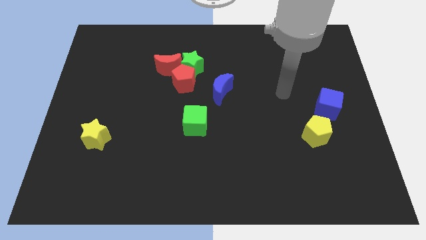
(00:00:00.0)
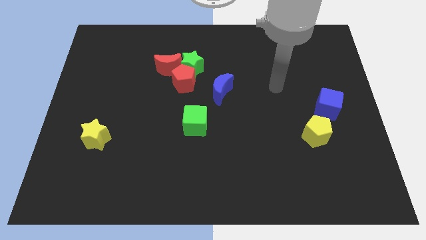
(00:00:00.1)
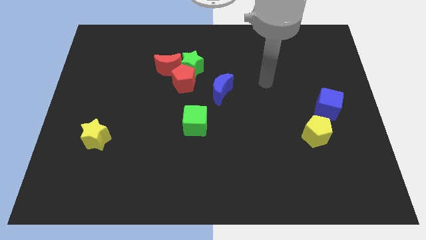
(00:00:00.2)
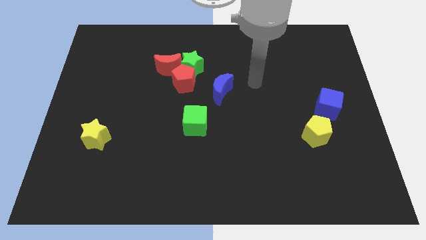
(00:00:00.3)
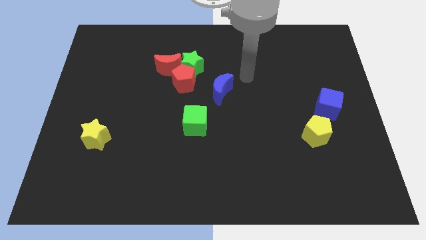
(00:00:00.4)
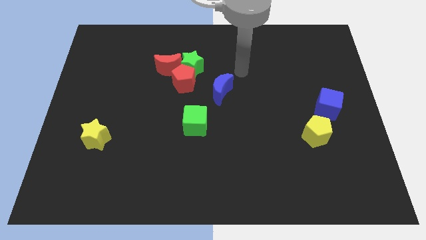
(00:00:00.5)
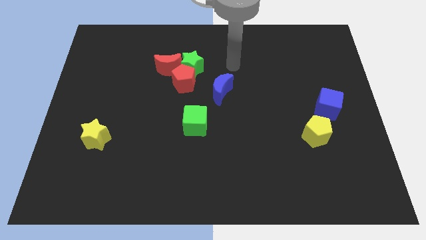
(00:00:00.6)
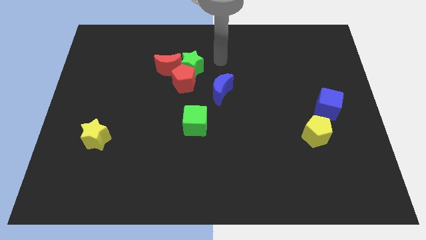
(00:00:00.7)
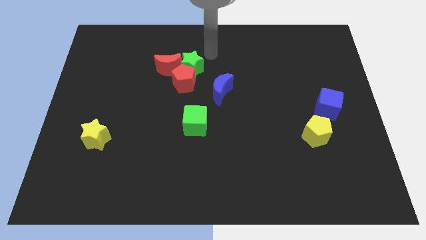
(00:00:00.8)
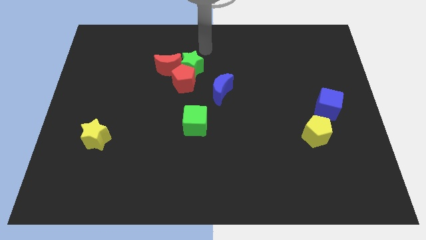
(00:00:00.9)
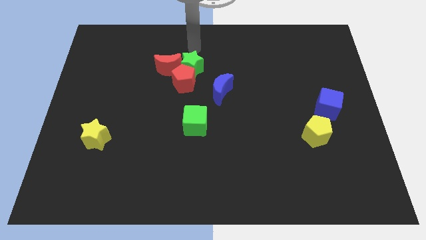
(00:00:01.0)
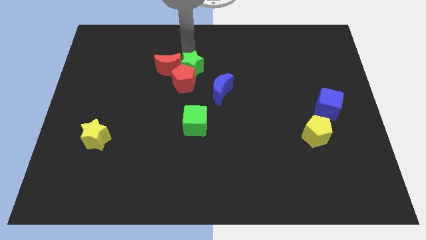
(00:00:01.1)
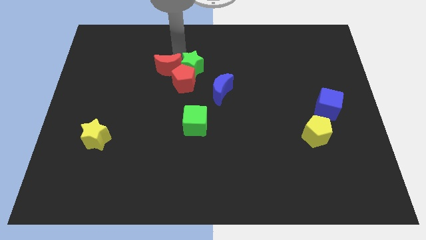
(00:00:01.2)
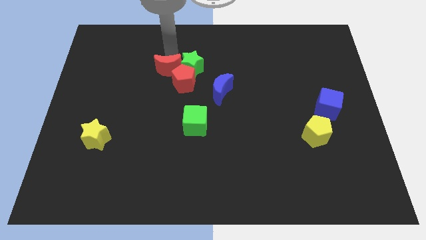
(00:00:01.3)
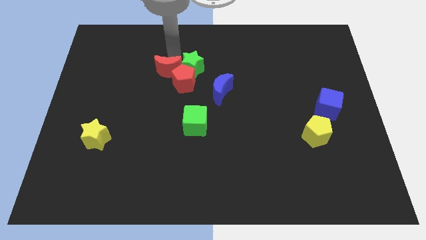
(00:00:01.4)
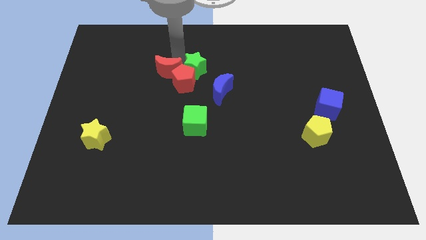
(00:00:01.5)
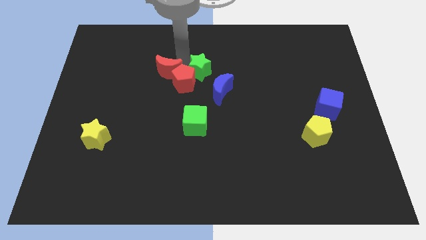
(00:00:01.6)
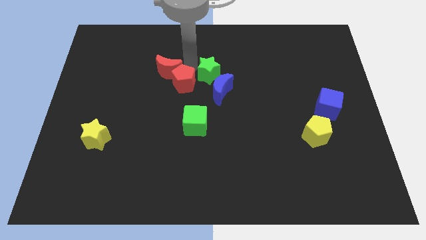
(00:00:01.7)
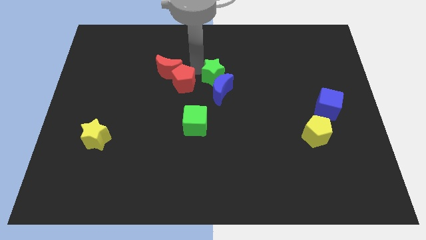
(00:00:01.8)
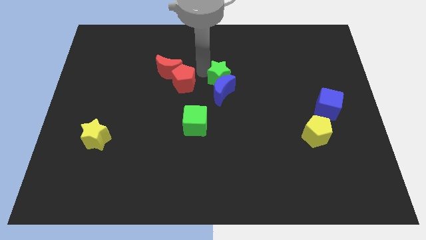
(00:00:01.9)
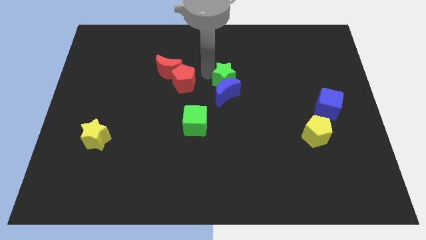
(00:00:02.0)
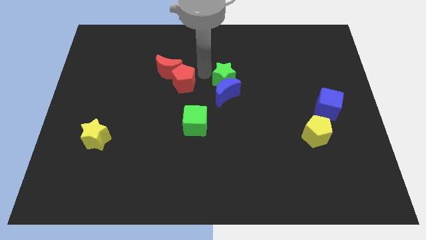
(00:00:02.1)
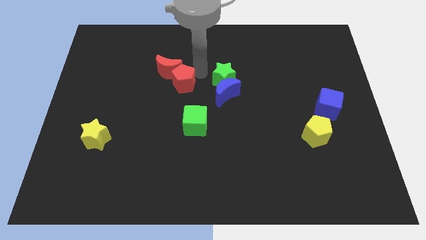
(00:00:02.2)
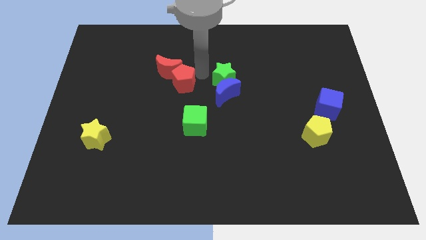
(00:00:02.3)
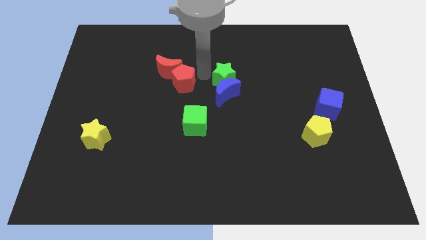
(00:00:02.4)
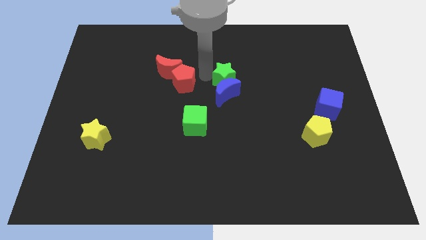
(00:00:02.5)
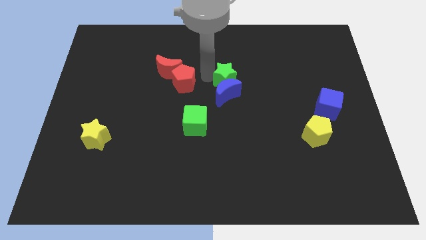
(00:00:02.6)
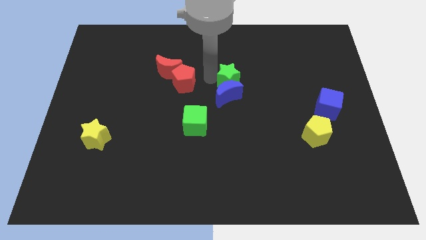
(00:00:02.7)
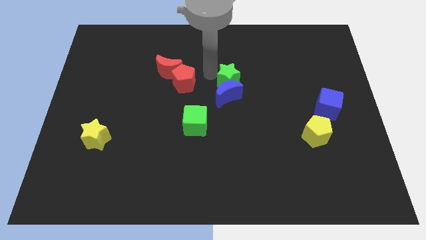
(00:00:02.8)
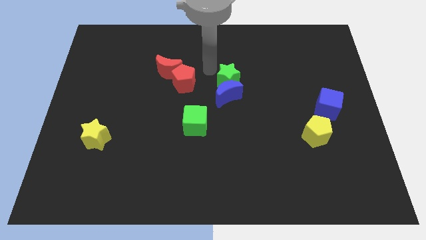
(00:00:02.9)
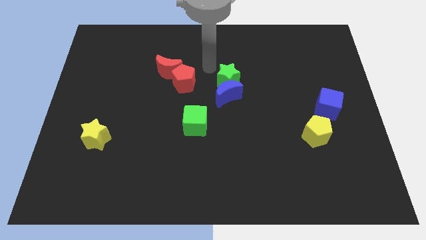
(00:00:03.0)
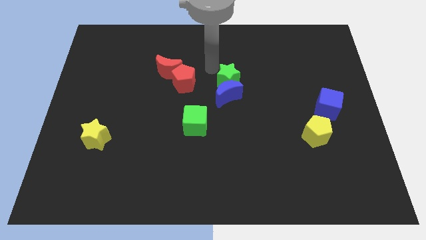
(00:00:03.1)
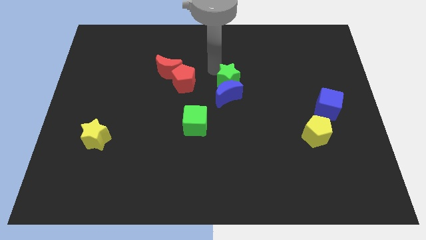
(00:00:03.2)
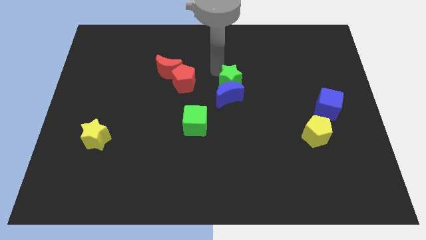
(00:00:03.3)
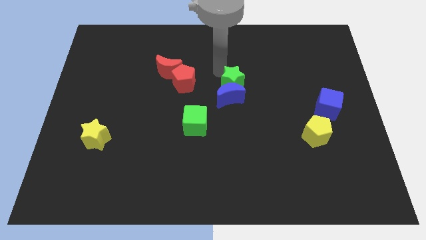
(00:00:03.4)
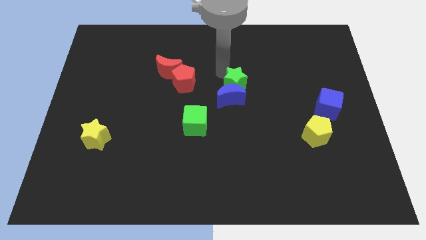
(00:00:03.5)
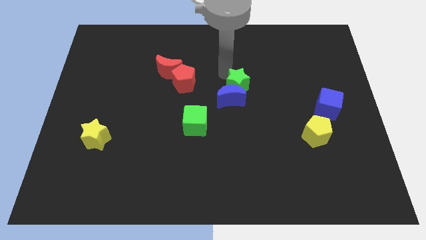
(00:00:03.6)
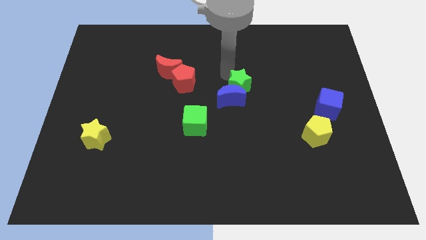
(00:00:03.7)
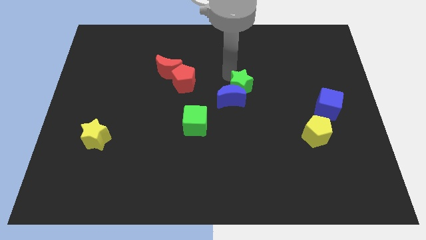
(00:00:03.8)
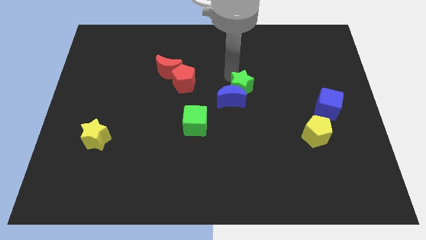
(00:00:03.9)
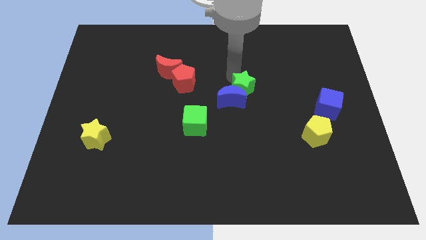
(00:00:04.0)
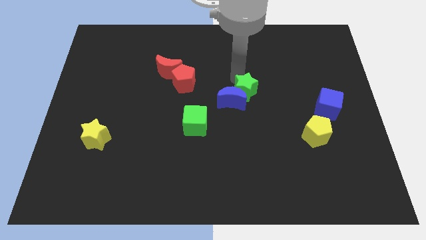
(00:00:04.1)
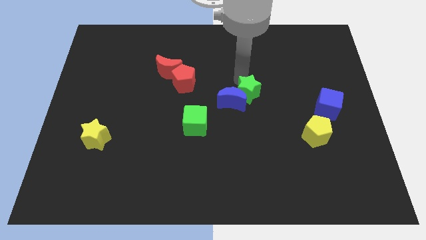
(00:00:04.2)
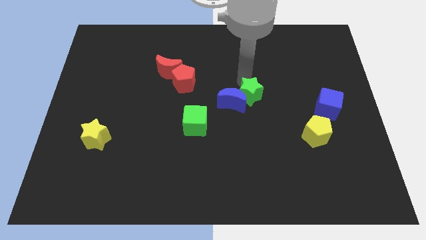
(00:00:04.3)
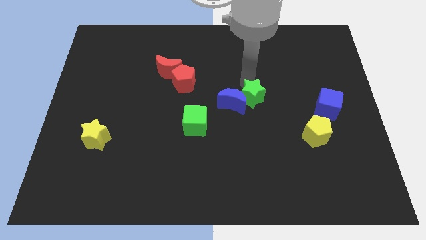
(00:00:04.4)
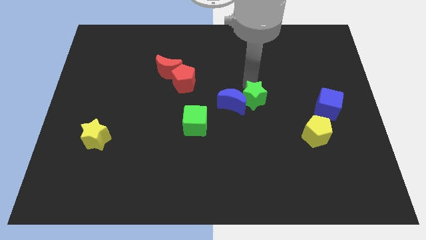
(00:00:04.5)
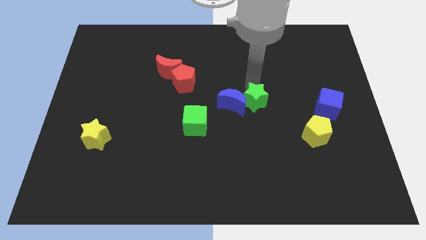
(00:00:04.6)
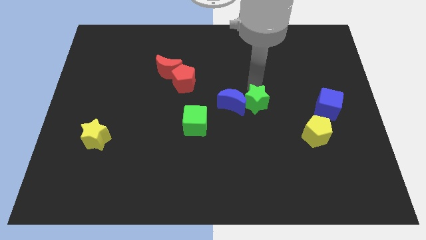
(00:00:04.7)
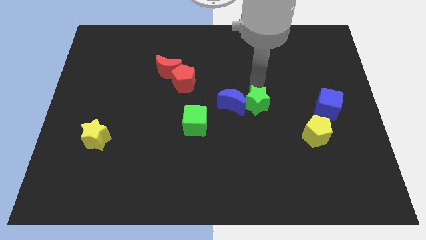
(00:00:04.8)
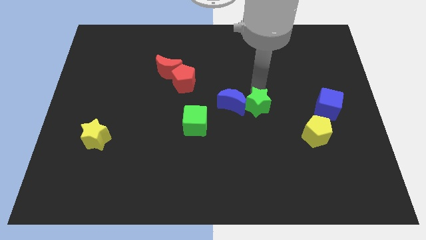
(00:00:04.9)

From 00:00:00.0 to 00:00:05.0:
push the green star downwards and right diagonally

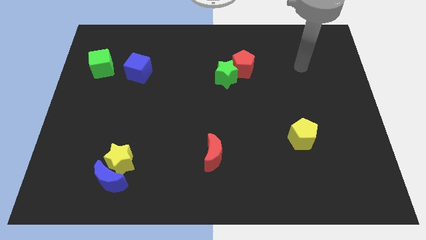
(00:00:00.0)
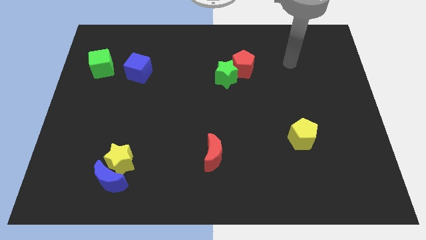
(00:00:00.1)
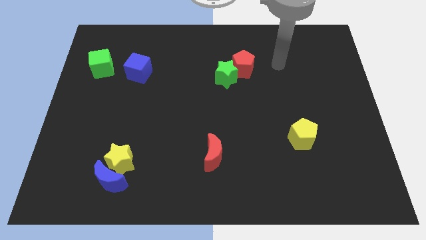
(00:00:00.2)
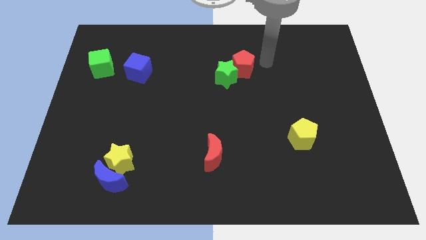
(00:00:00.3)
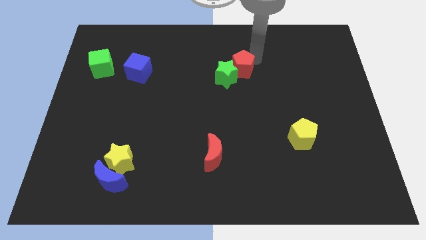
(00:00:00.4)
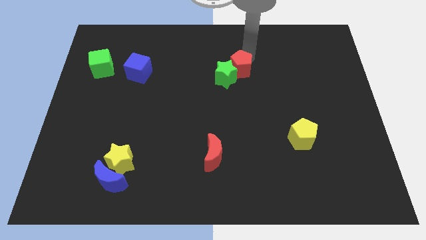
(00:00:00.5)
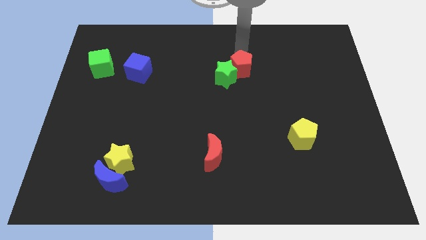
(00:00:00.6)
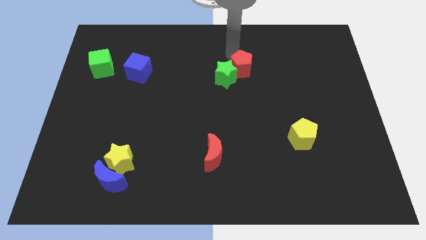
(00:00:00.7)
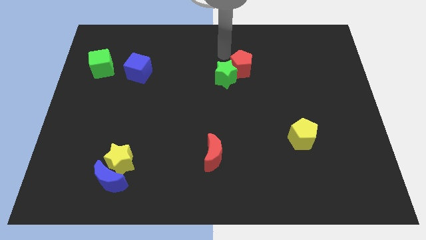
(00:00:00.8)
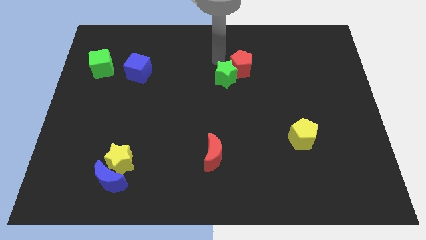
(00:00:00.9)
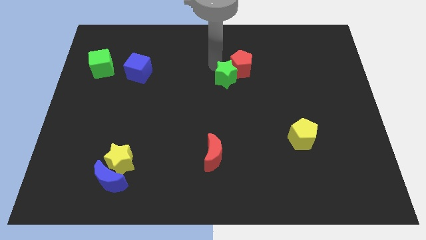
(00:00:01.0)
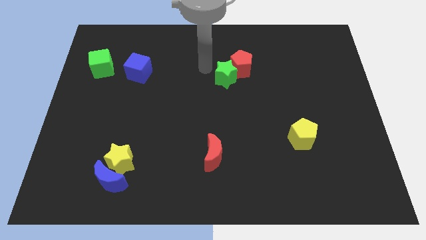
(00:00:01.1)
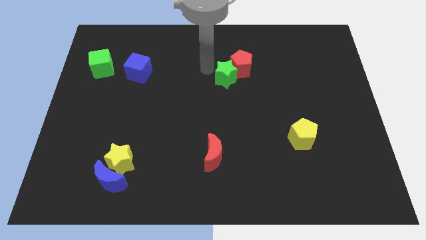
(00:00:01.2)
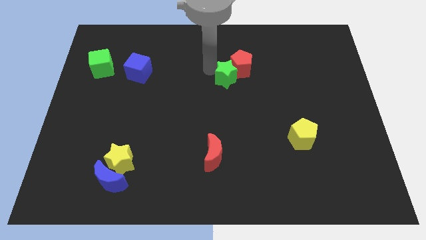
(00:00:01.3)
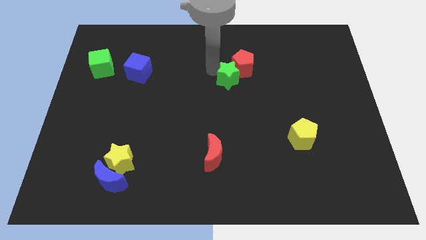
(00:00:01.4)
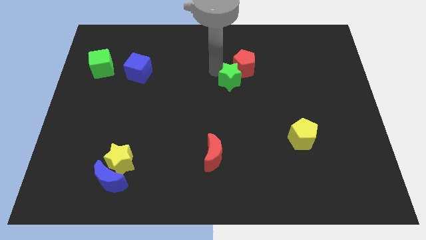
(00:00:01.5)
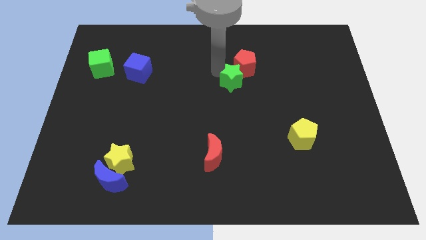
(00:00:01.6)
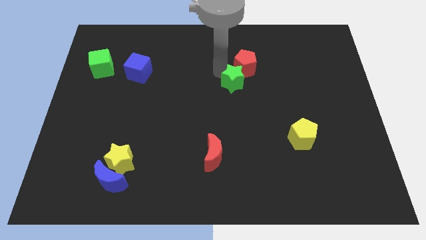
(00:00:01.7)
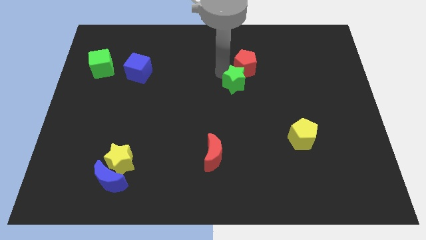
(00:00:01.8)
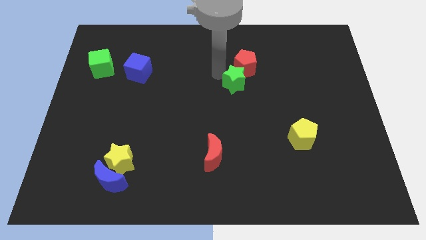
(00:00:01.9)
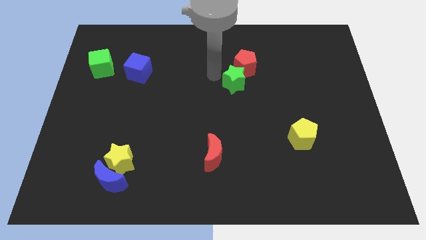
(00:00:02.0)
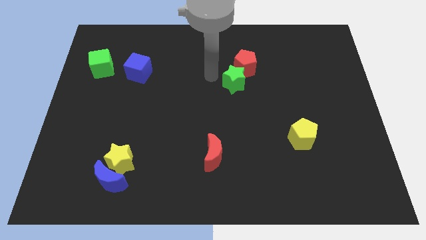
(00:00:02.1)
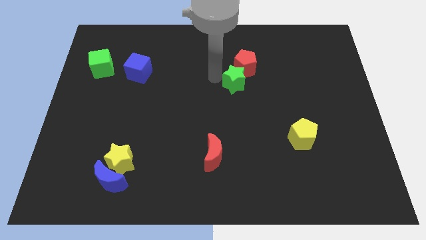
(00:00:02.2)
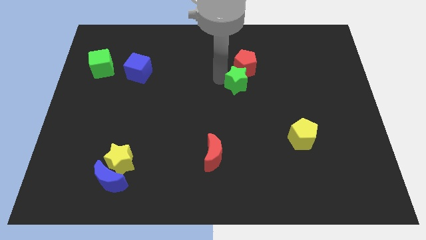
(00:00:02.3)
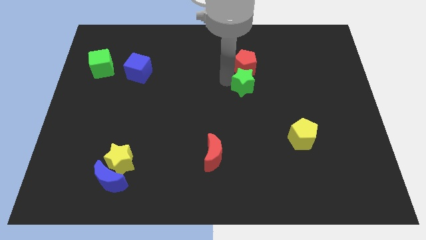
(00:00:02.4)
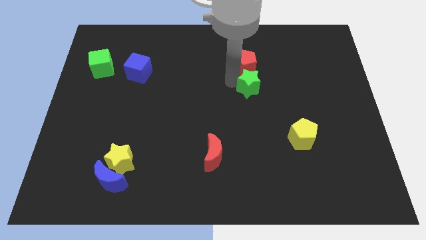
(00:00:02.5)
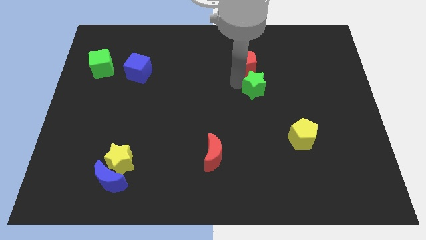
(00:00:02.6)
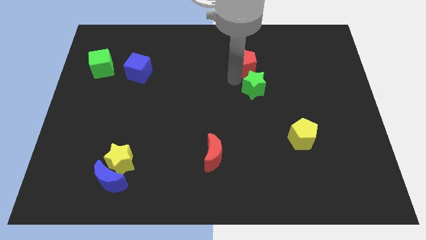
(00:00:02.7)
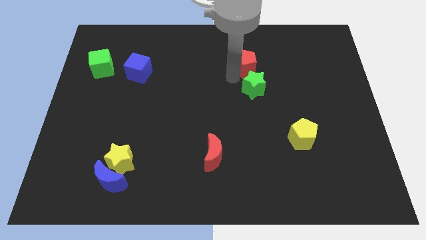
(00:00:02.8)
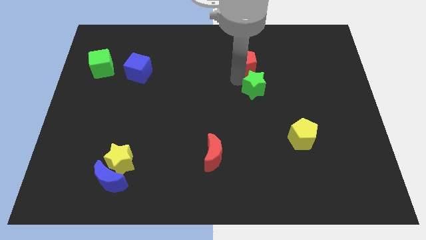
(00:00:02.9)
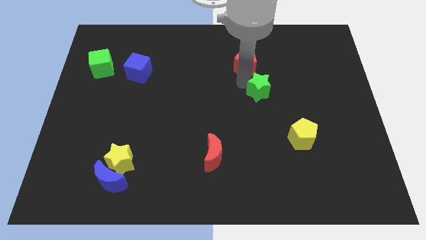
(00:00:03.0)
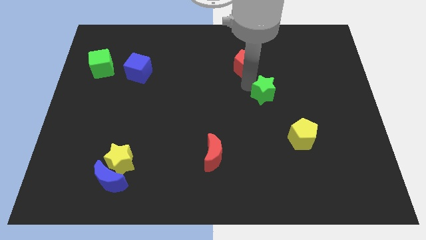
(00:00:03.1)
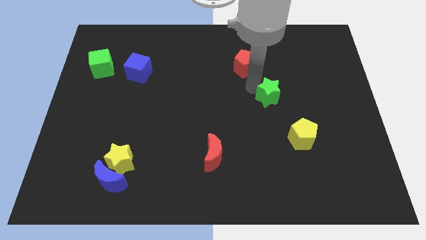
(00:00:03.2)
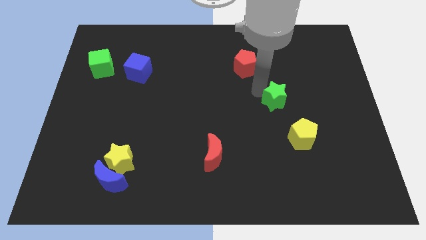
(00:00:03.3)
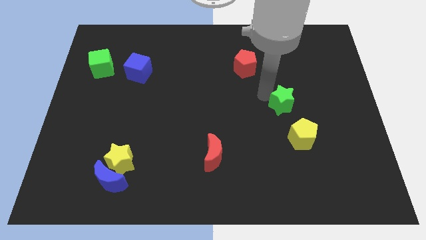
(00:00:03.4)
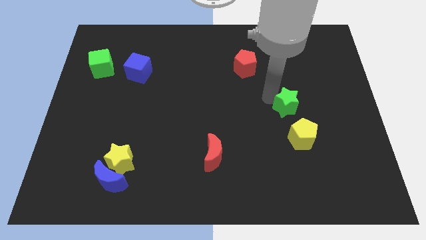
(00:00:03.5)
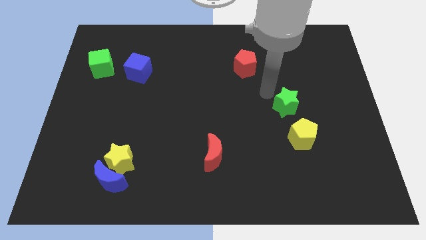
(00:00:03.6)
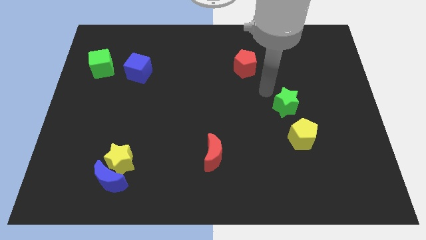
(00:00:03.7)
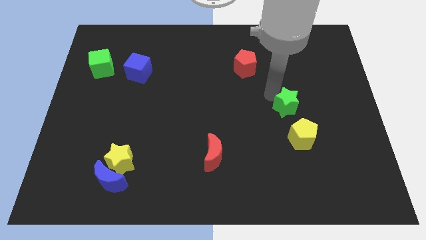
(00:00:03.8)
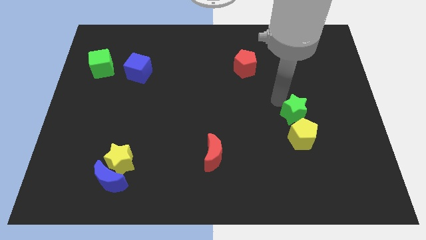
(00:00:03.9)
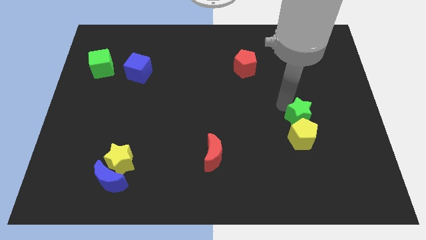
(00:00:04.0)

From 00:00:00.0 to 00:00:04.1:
push the green star diagonally down and right
